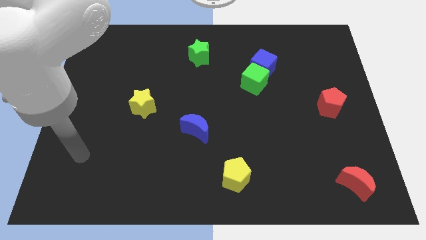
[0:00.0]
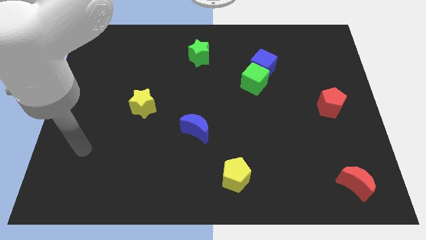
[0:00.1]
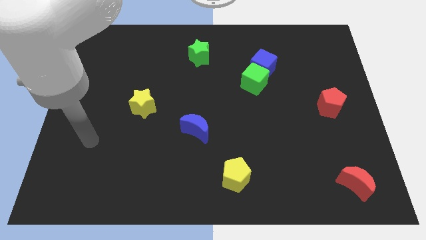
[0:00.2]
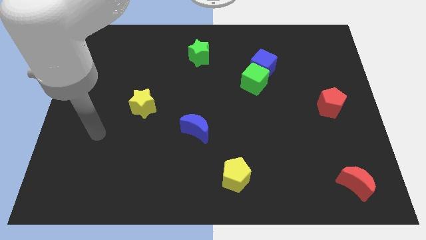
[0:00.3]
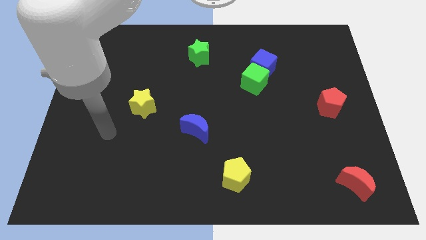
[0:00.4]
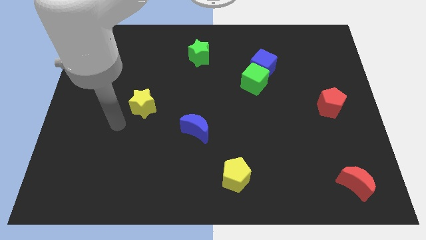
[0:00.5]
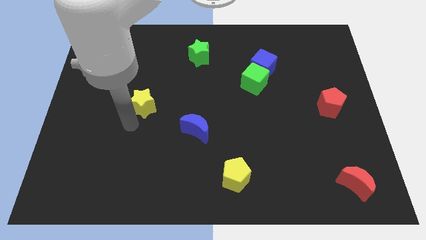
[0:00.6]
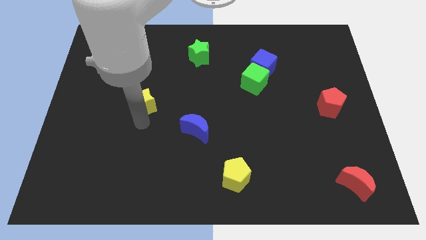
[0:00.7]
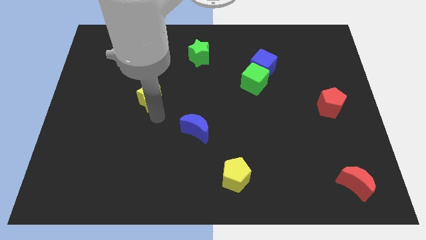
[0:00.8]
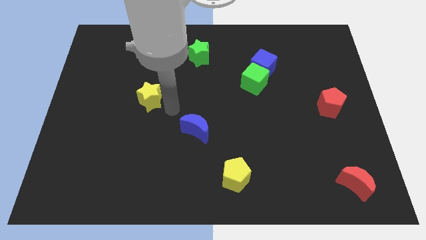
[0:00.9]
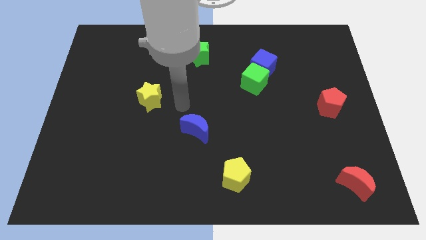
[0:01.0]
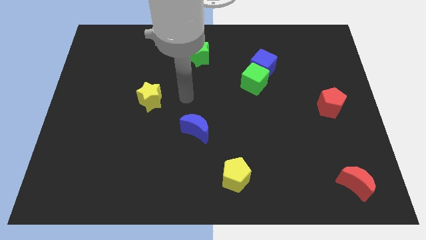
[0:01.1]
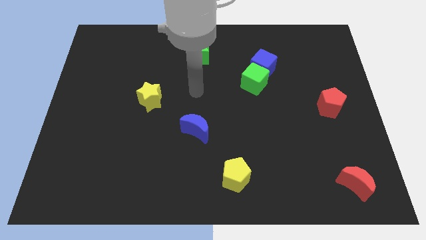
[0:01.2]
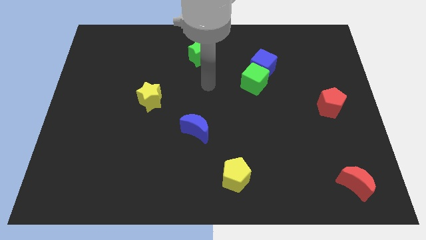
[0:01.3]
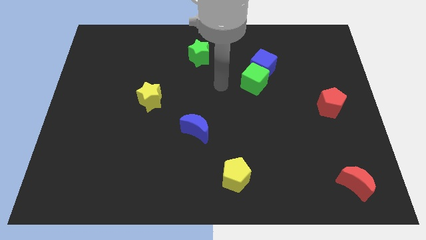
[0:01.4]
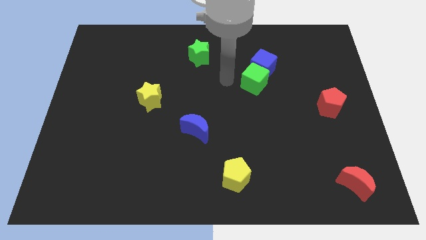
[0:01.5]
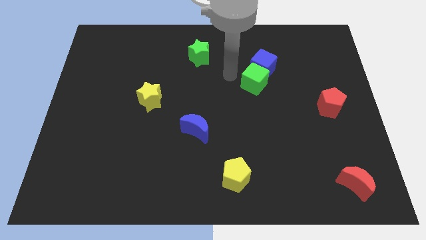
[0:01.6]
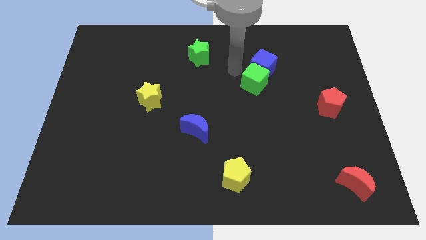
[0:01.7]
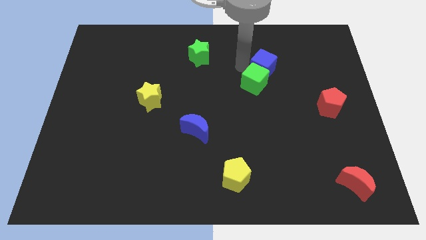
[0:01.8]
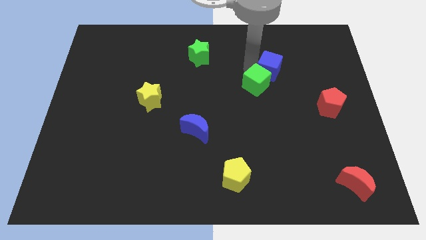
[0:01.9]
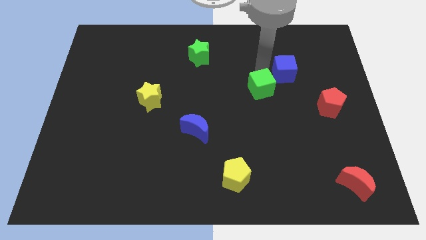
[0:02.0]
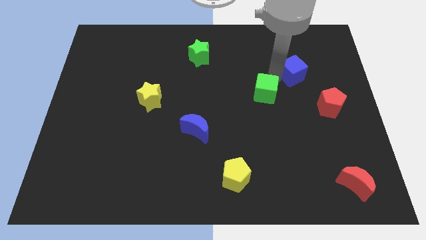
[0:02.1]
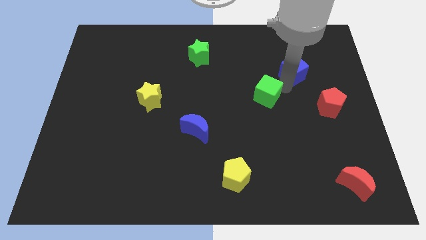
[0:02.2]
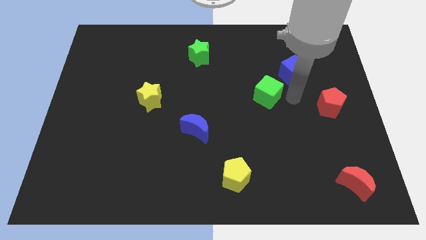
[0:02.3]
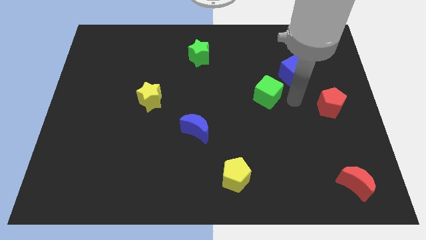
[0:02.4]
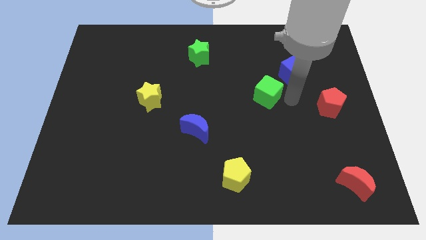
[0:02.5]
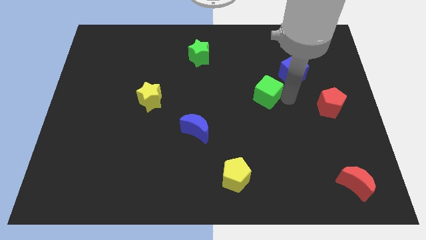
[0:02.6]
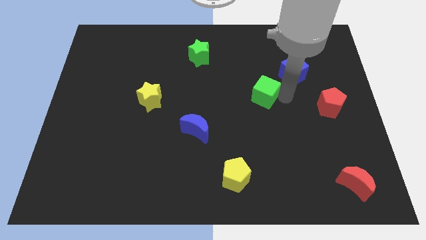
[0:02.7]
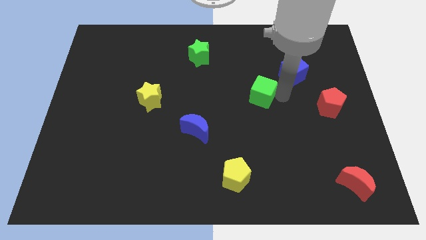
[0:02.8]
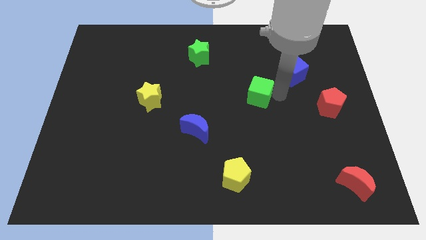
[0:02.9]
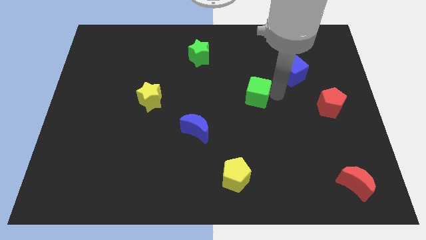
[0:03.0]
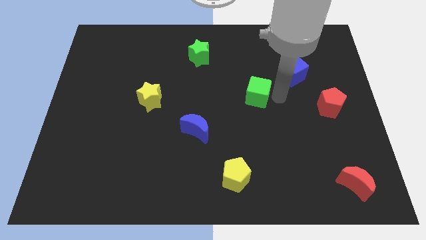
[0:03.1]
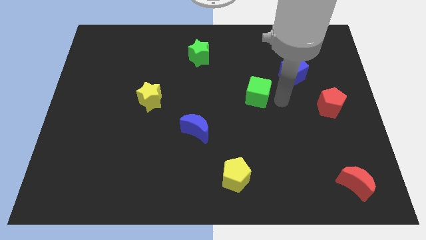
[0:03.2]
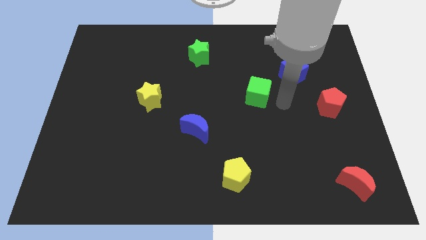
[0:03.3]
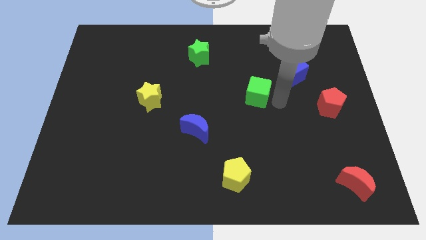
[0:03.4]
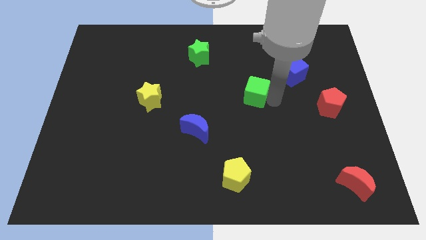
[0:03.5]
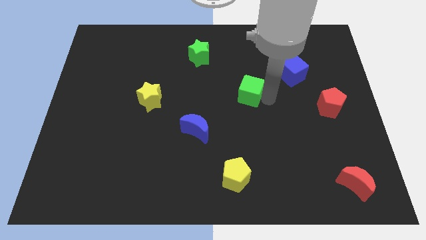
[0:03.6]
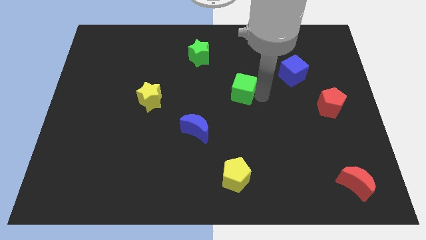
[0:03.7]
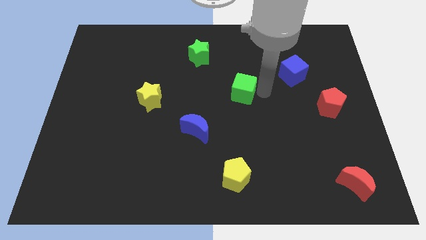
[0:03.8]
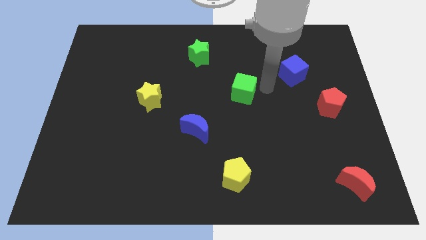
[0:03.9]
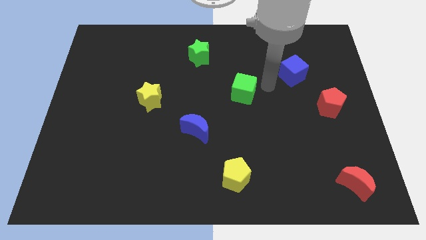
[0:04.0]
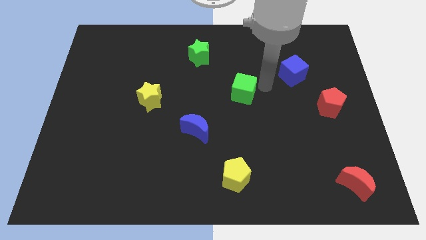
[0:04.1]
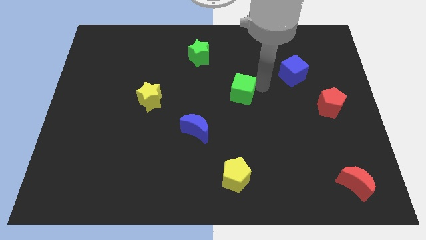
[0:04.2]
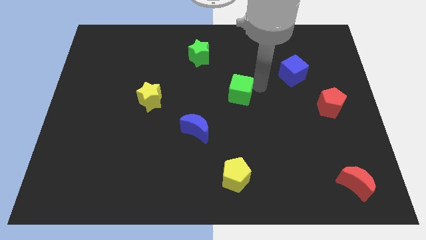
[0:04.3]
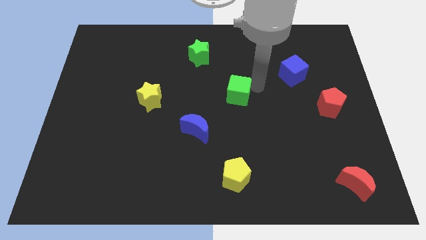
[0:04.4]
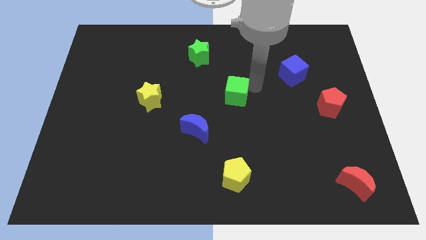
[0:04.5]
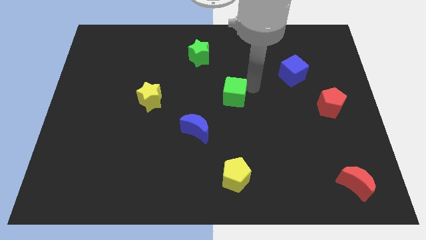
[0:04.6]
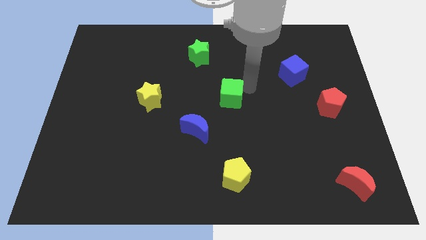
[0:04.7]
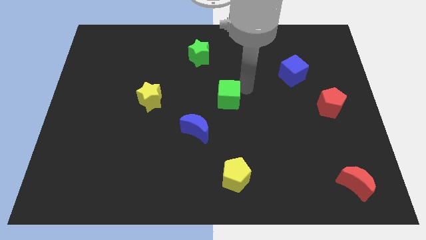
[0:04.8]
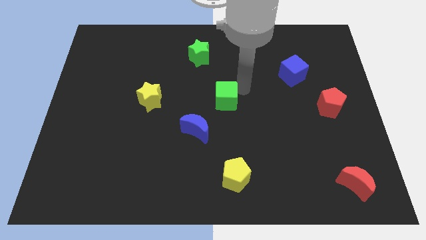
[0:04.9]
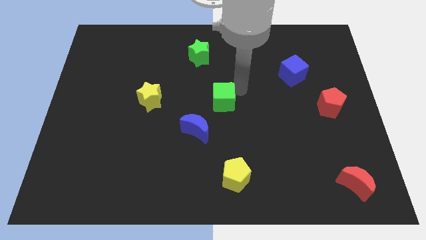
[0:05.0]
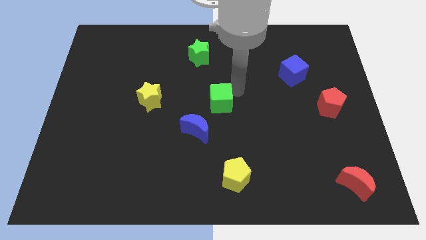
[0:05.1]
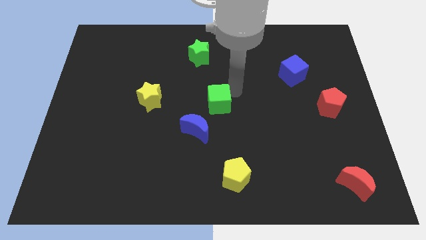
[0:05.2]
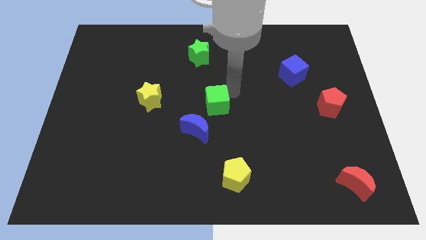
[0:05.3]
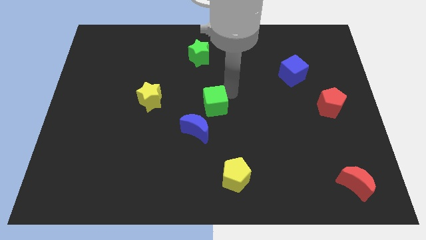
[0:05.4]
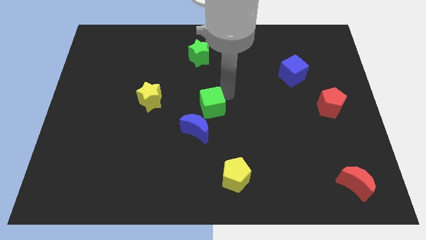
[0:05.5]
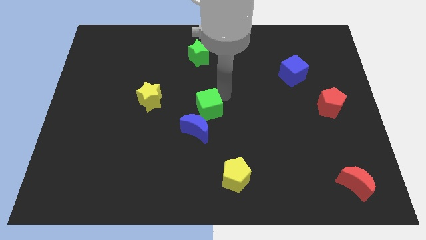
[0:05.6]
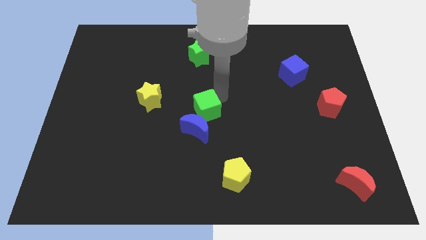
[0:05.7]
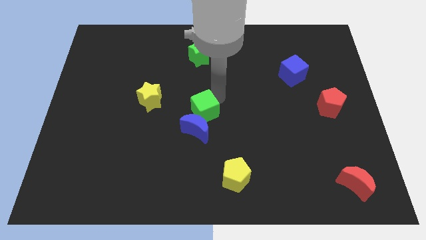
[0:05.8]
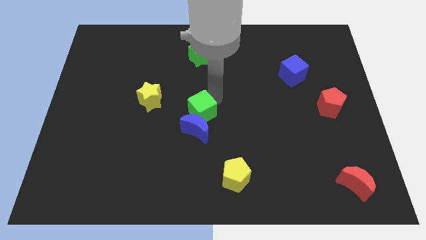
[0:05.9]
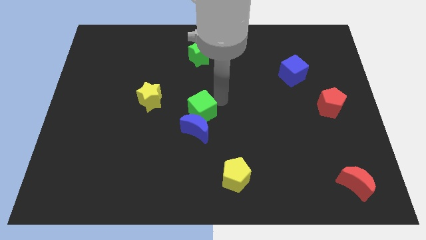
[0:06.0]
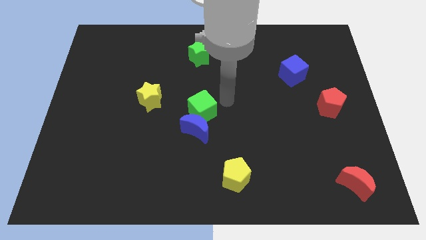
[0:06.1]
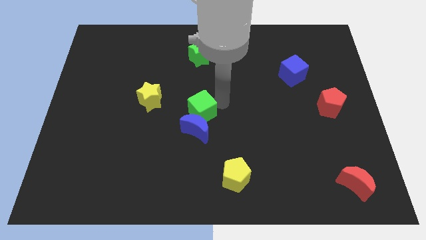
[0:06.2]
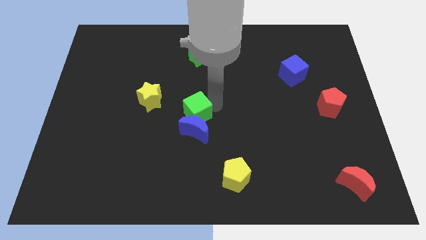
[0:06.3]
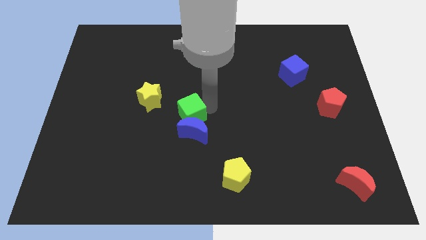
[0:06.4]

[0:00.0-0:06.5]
push the green cube diagonally down and to the right of the yellow star
